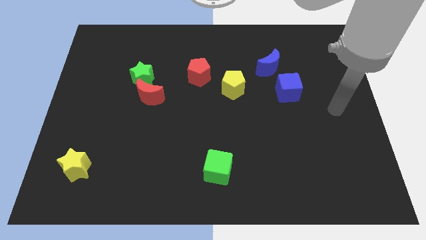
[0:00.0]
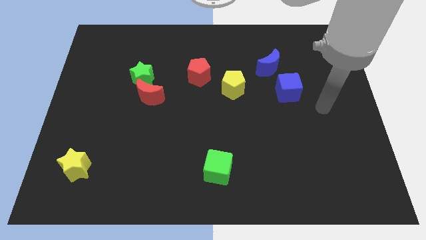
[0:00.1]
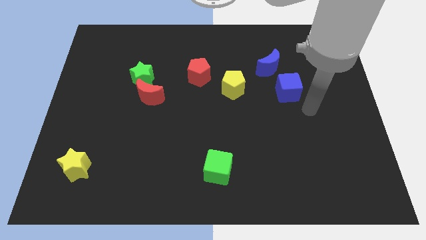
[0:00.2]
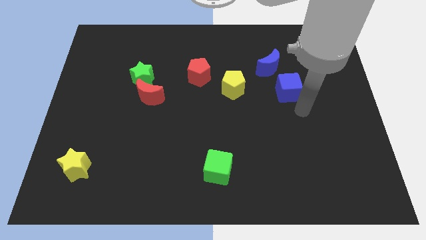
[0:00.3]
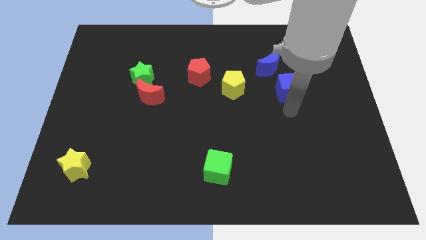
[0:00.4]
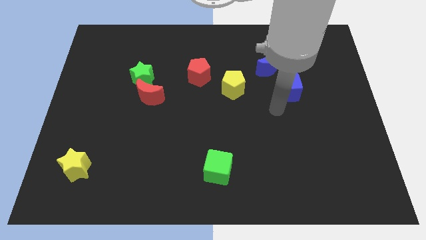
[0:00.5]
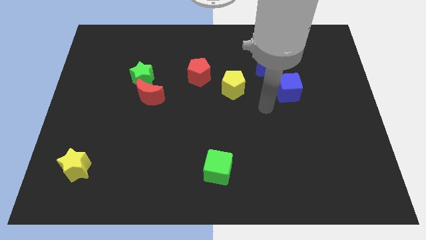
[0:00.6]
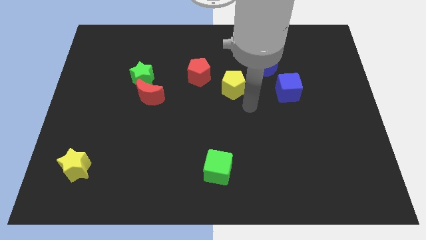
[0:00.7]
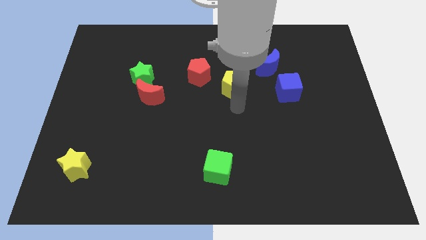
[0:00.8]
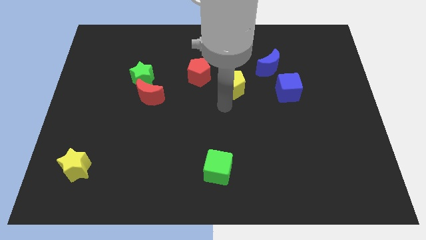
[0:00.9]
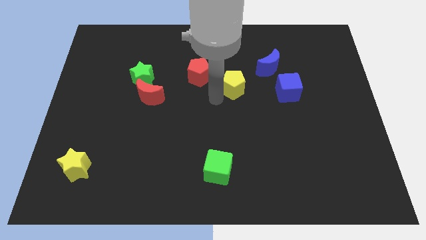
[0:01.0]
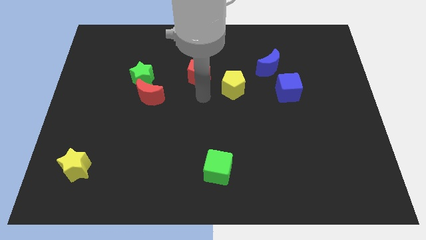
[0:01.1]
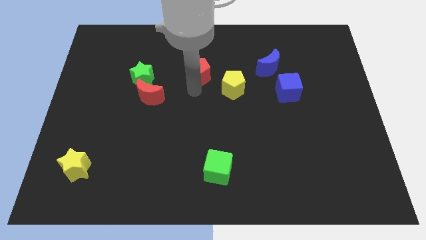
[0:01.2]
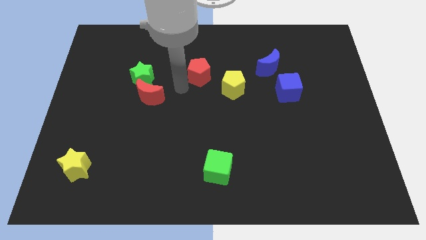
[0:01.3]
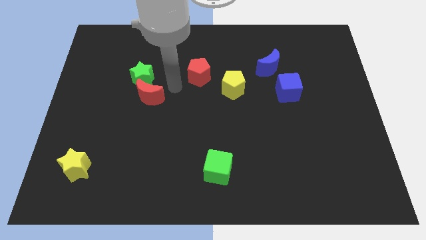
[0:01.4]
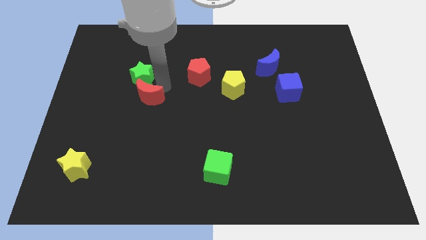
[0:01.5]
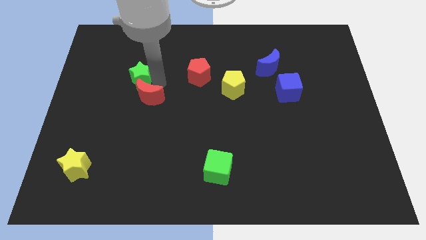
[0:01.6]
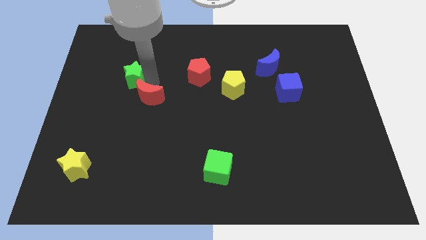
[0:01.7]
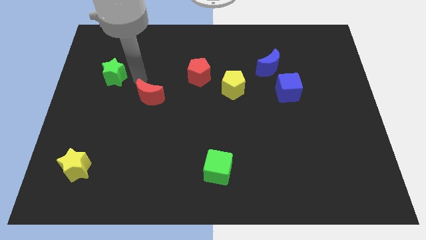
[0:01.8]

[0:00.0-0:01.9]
separate the red moon from the green star

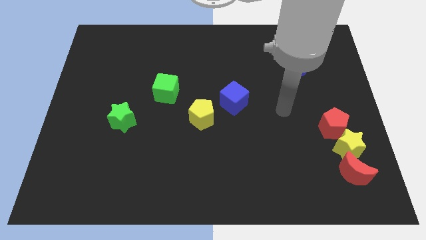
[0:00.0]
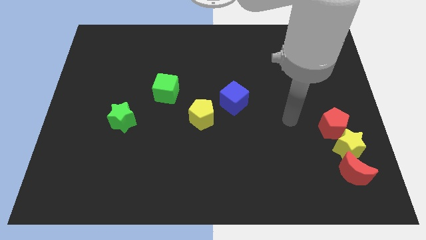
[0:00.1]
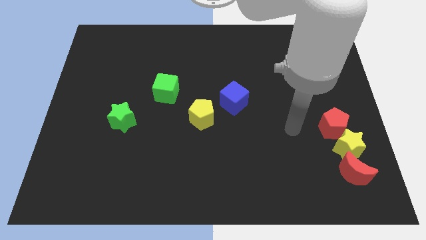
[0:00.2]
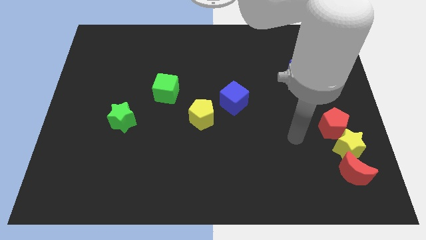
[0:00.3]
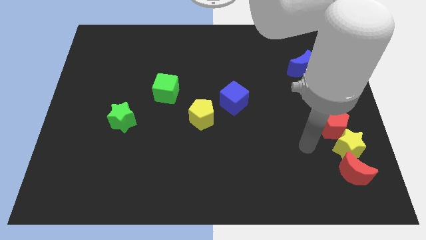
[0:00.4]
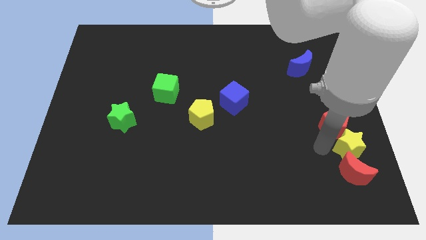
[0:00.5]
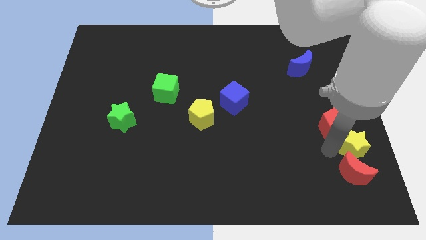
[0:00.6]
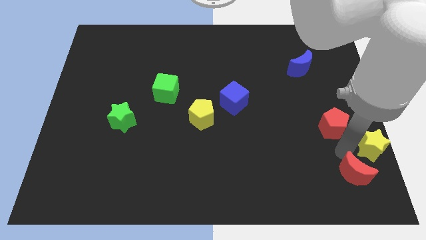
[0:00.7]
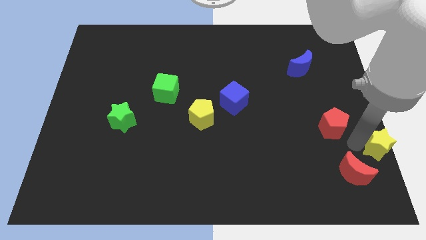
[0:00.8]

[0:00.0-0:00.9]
move the red pentagon away from the yellow star

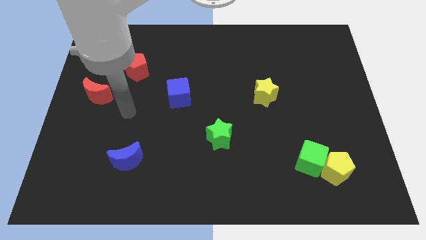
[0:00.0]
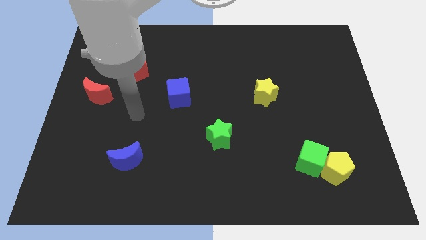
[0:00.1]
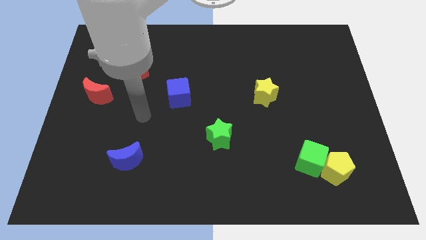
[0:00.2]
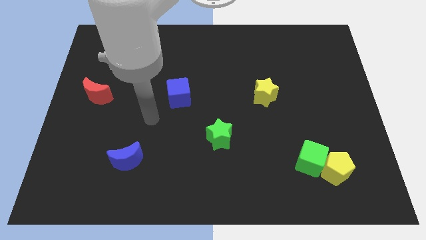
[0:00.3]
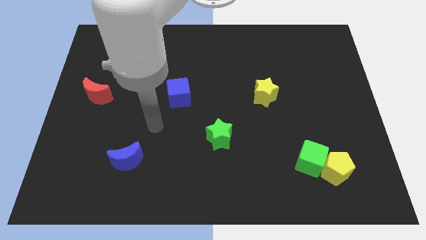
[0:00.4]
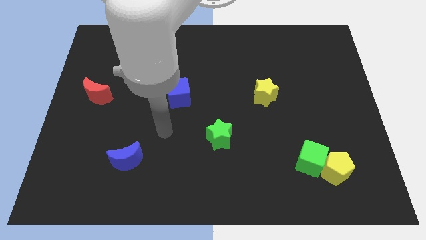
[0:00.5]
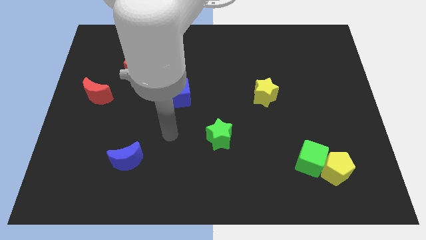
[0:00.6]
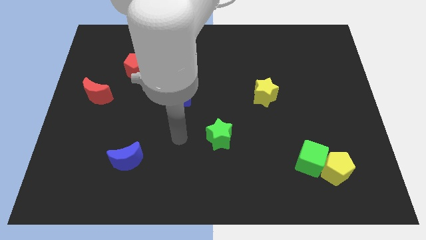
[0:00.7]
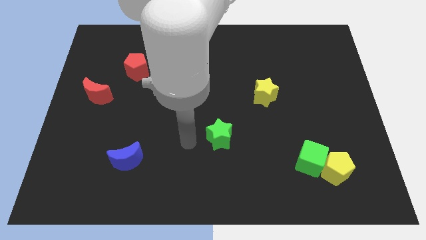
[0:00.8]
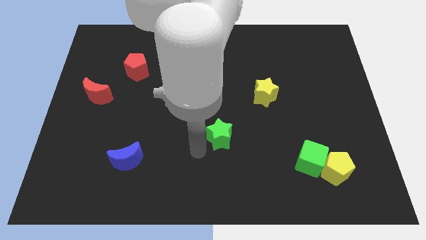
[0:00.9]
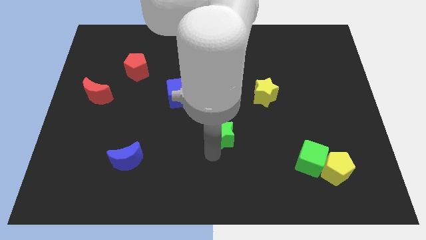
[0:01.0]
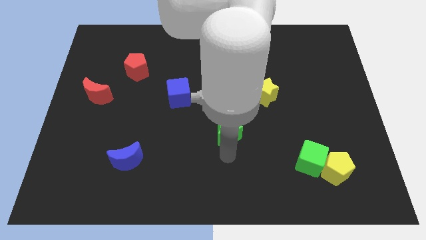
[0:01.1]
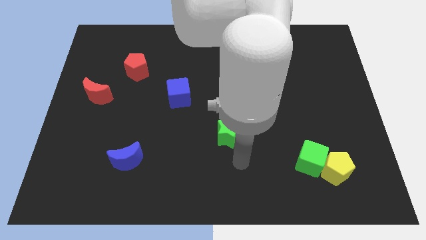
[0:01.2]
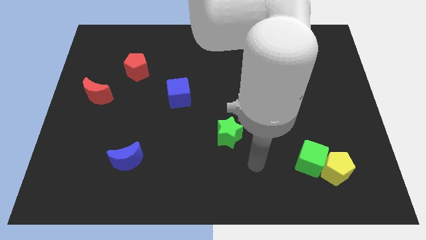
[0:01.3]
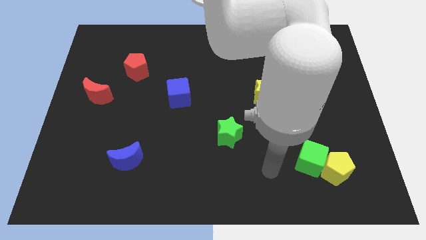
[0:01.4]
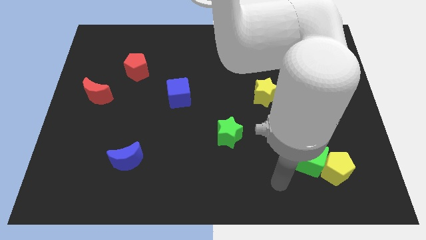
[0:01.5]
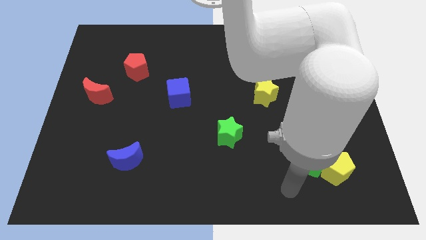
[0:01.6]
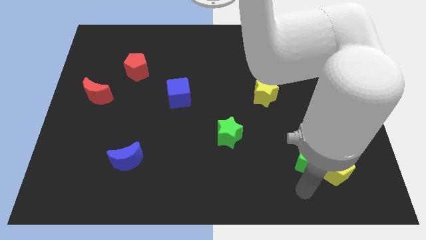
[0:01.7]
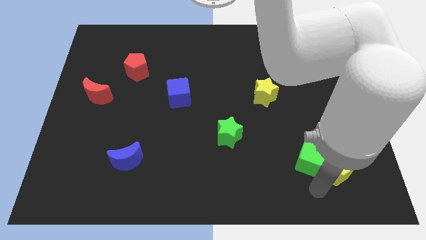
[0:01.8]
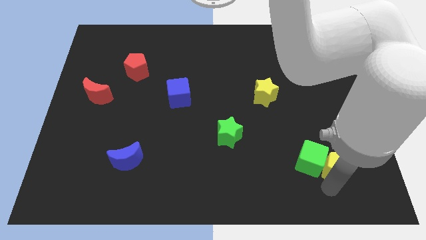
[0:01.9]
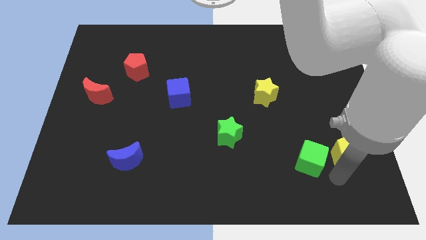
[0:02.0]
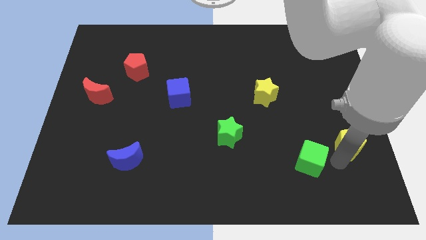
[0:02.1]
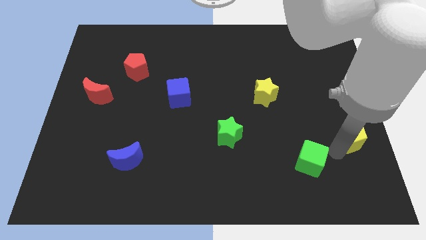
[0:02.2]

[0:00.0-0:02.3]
pull the green cube apart from the yellow pentagon

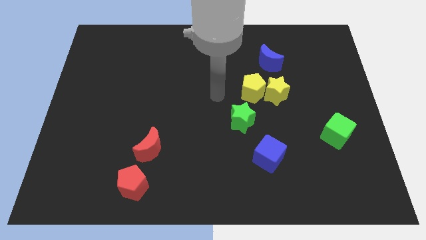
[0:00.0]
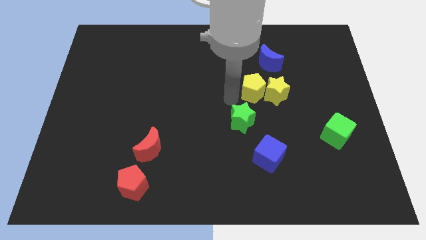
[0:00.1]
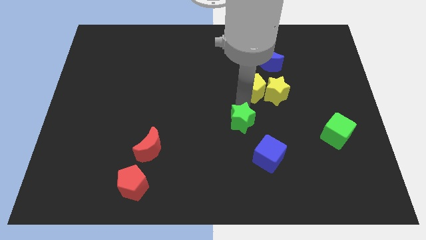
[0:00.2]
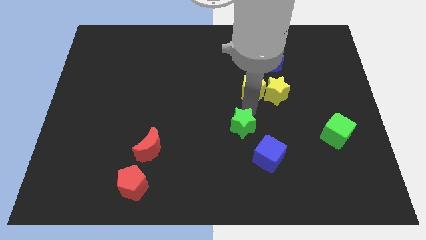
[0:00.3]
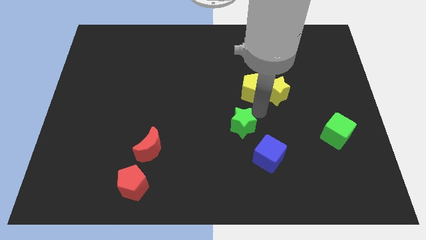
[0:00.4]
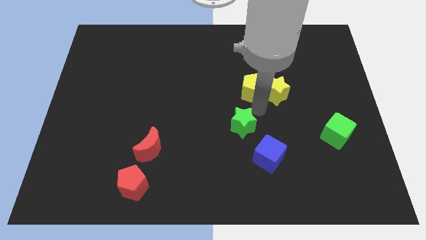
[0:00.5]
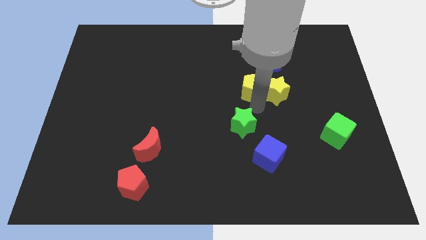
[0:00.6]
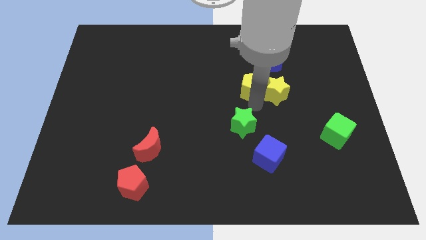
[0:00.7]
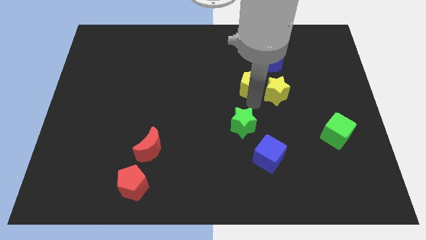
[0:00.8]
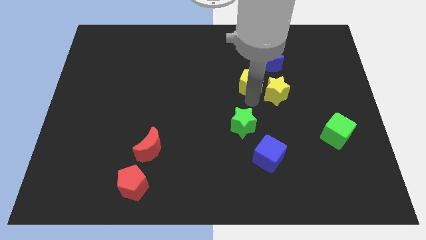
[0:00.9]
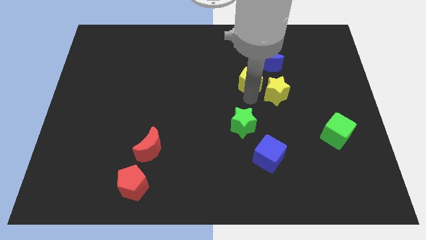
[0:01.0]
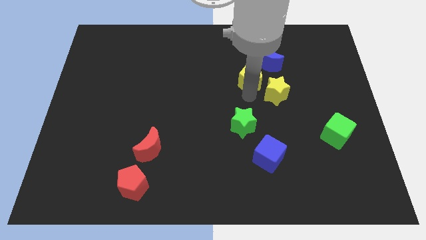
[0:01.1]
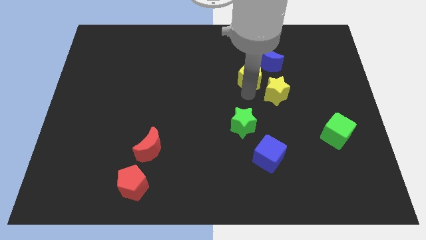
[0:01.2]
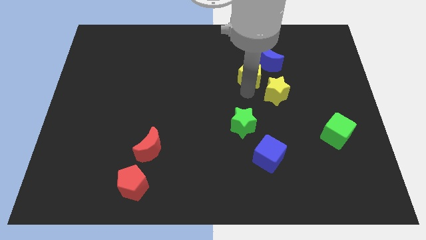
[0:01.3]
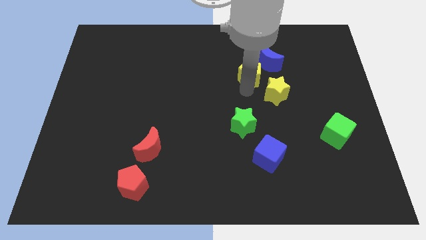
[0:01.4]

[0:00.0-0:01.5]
separate the yellow pentagon from the yellow star and green star

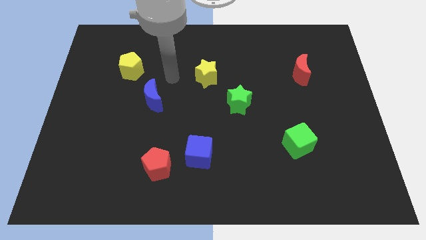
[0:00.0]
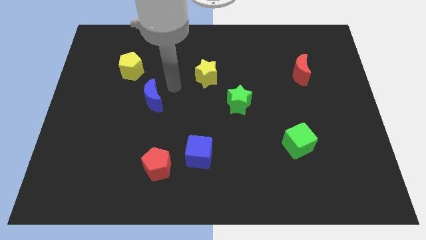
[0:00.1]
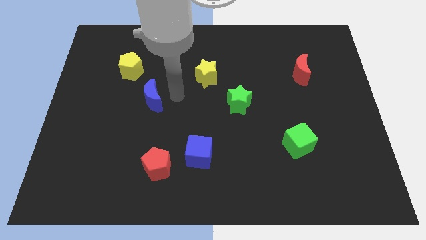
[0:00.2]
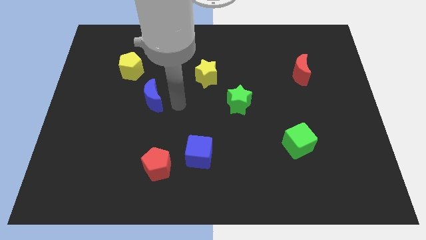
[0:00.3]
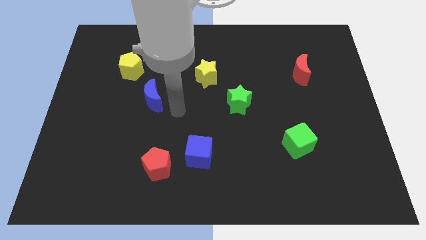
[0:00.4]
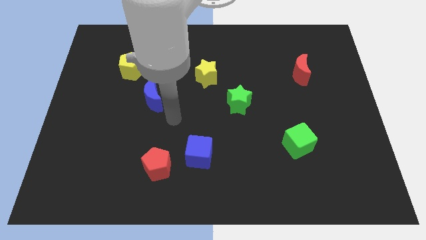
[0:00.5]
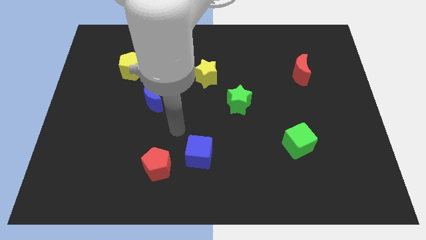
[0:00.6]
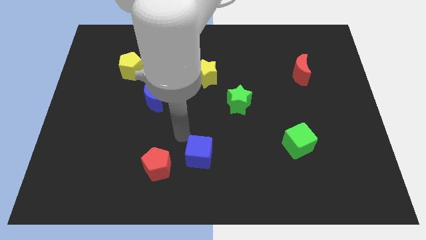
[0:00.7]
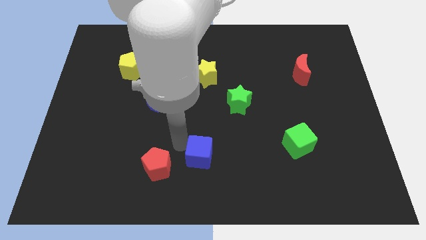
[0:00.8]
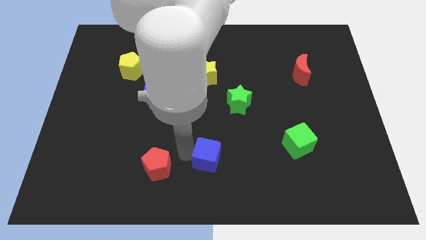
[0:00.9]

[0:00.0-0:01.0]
move the red pentagon away from the blue cube

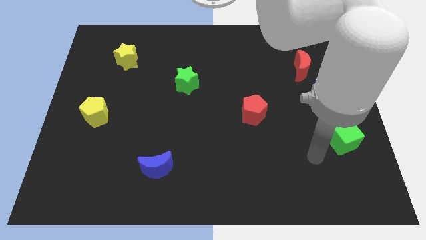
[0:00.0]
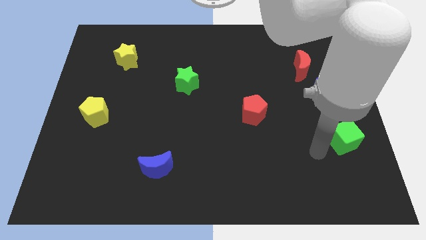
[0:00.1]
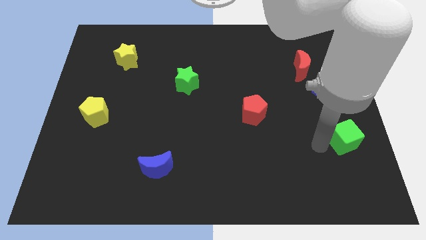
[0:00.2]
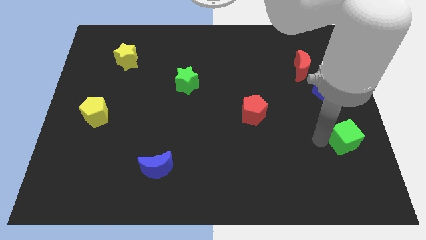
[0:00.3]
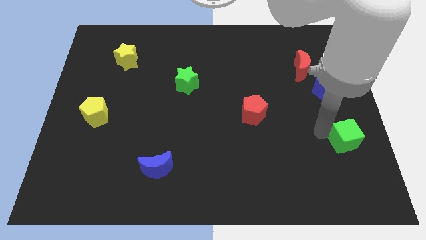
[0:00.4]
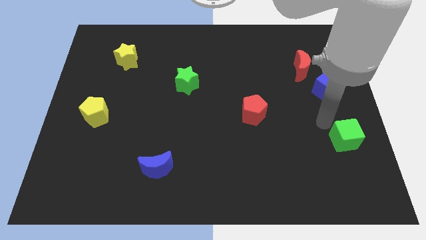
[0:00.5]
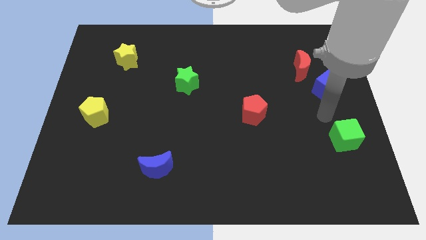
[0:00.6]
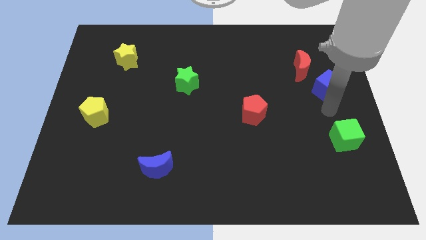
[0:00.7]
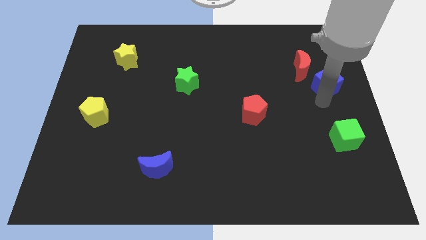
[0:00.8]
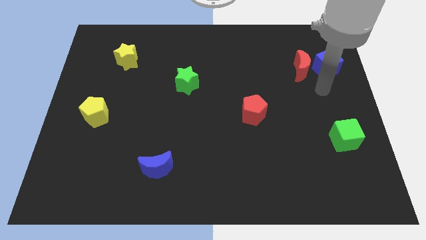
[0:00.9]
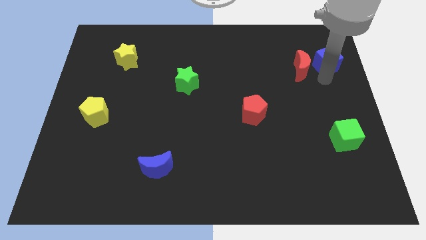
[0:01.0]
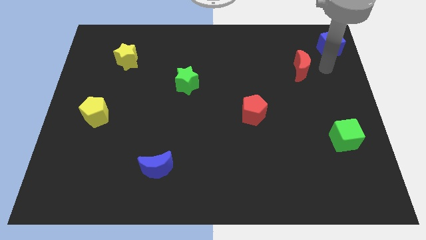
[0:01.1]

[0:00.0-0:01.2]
move the red moon away from the blue cube

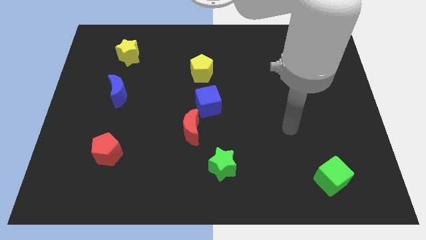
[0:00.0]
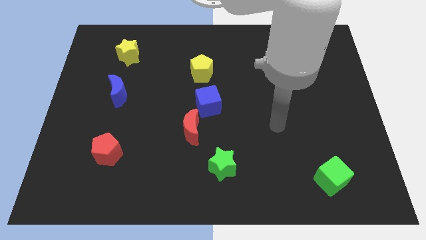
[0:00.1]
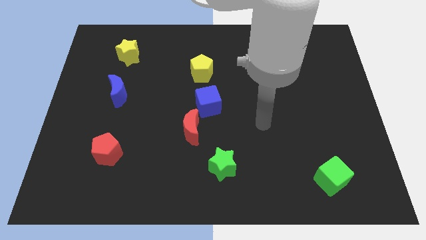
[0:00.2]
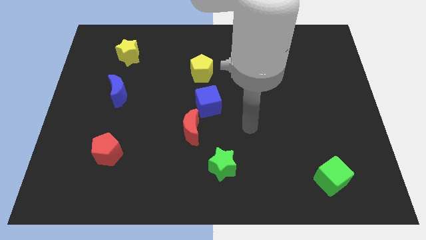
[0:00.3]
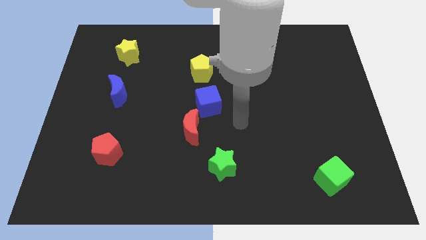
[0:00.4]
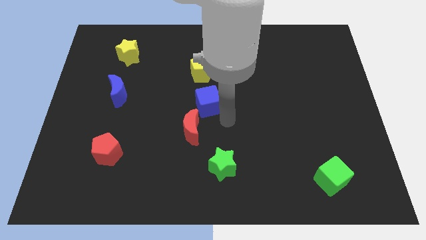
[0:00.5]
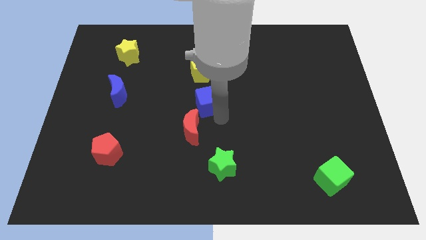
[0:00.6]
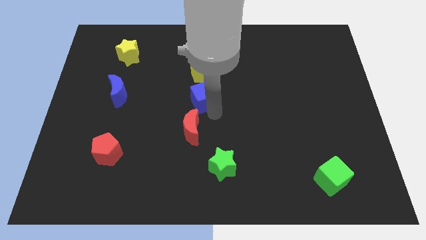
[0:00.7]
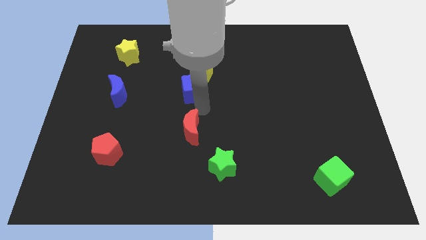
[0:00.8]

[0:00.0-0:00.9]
separate the red moon from the blue cube
